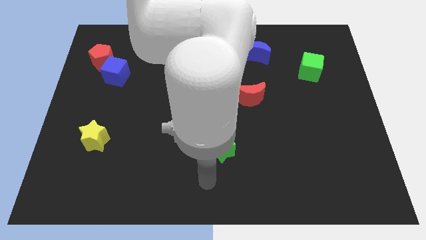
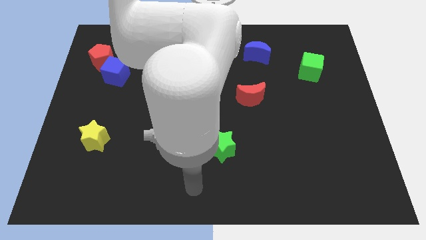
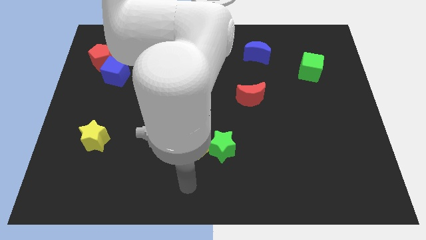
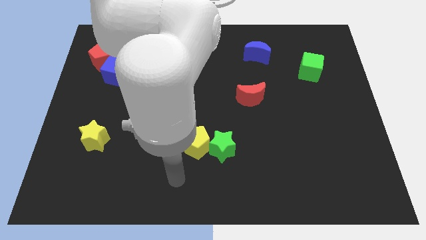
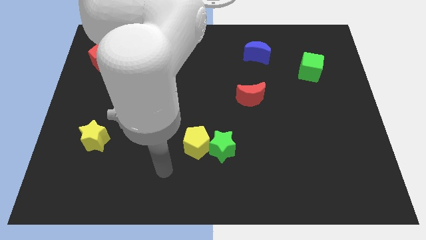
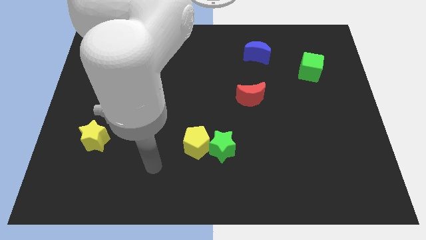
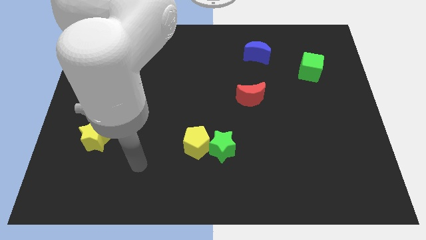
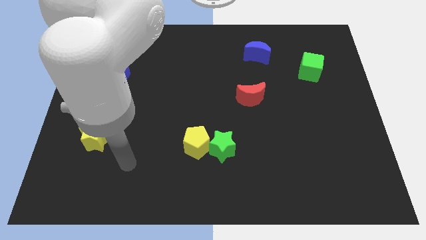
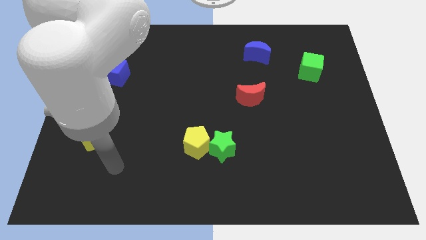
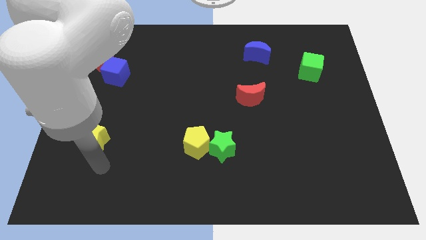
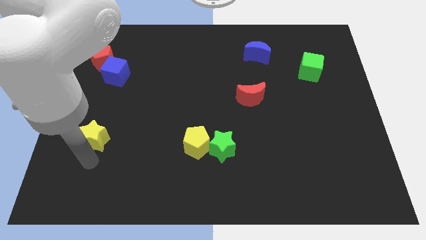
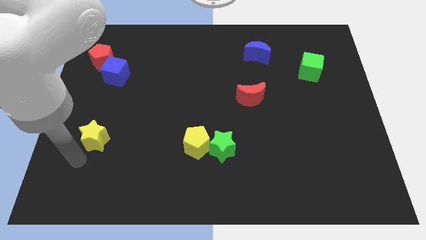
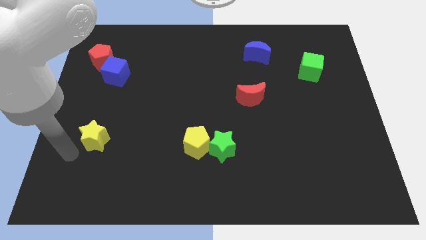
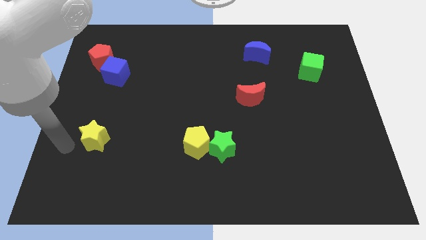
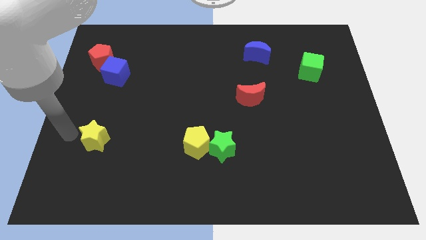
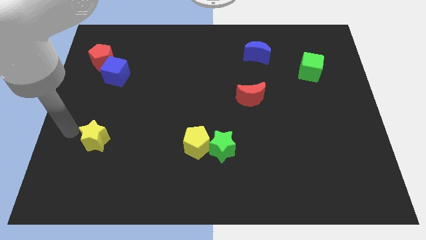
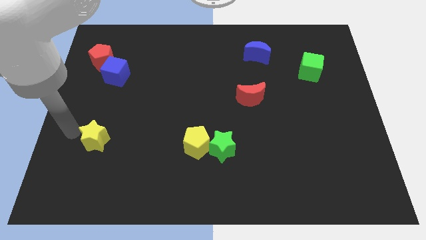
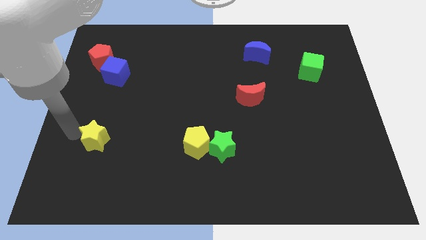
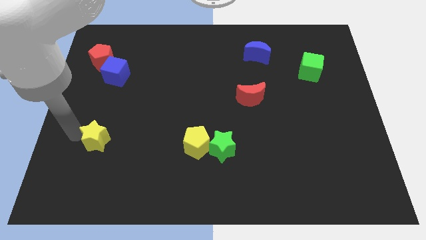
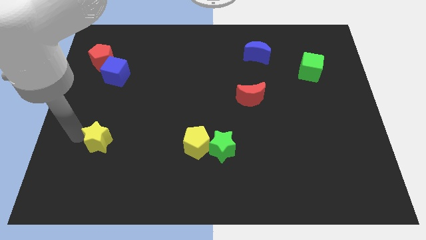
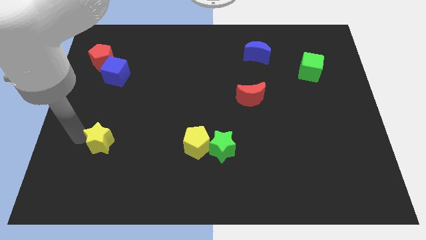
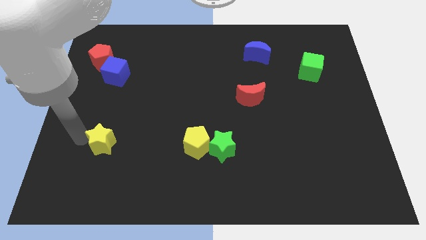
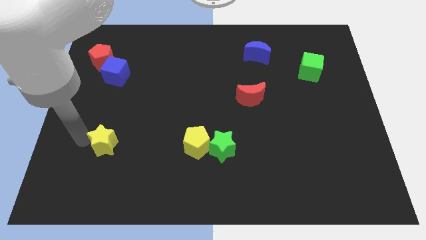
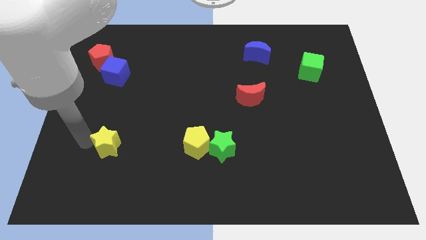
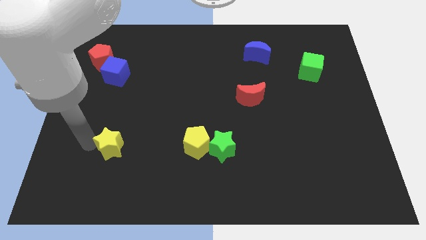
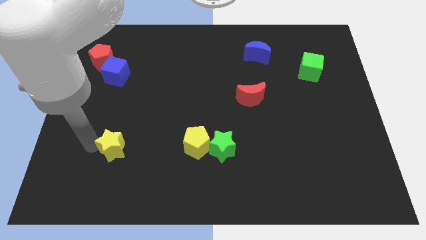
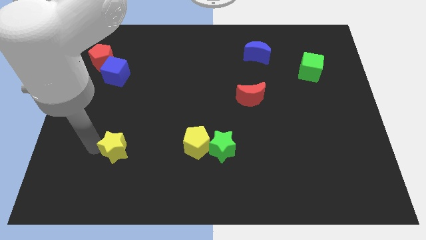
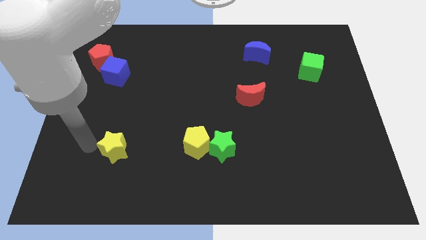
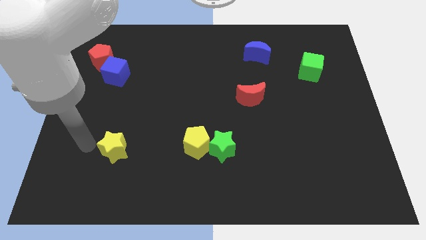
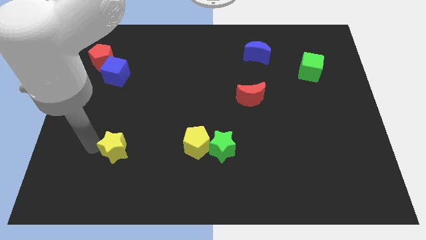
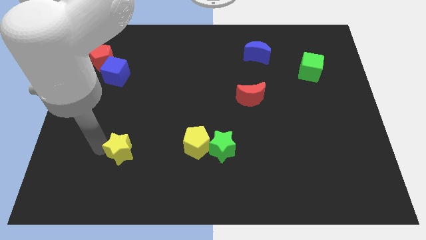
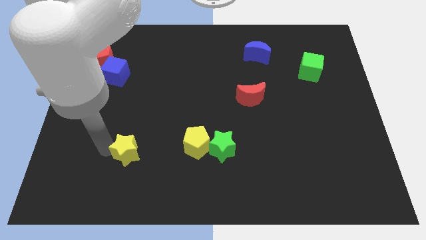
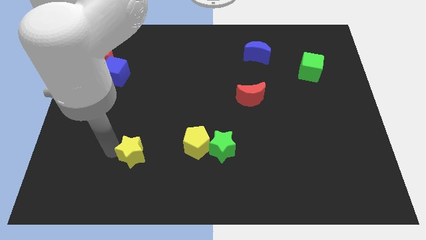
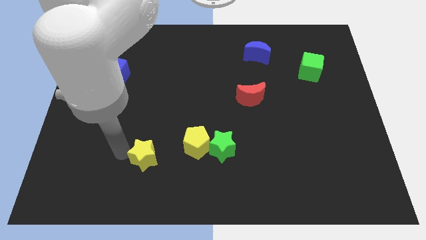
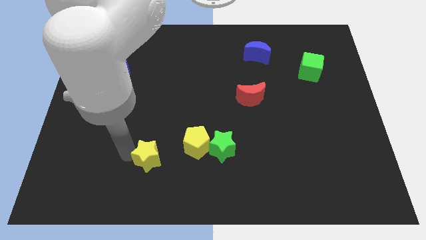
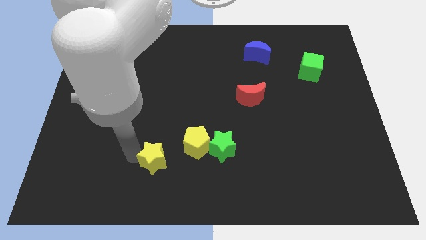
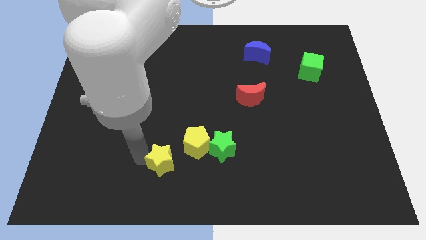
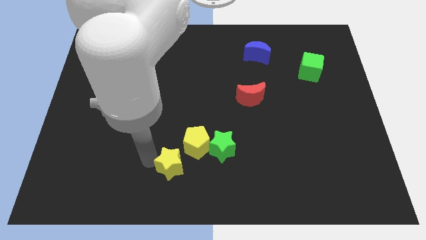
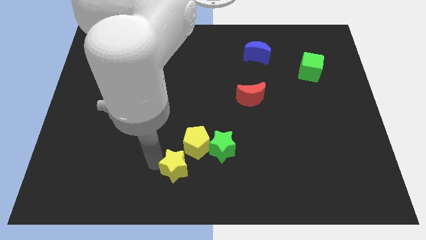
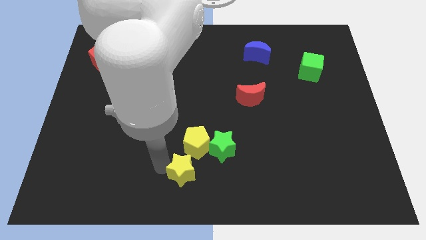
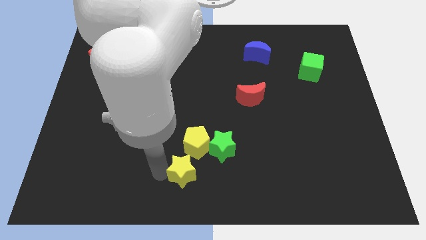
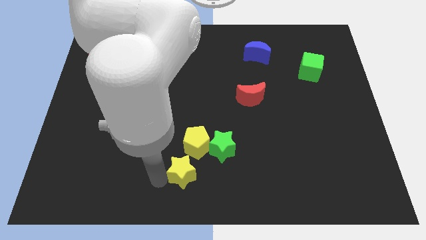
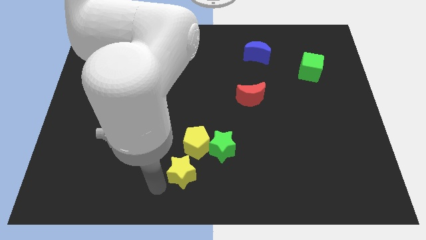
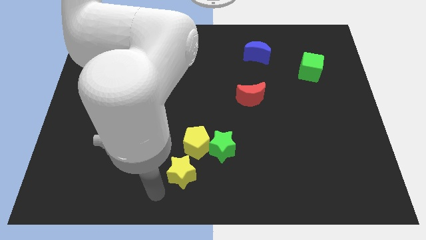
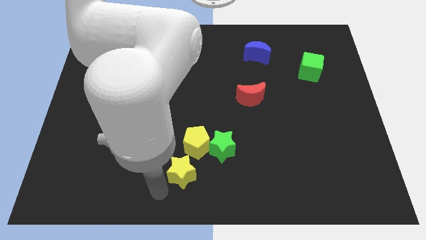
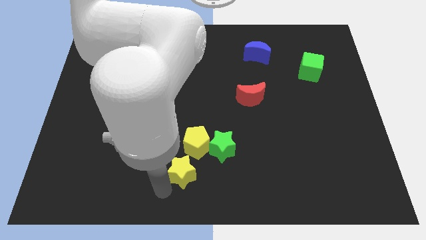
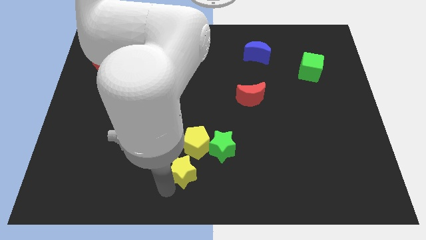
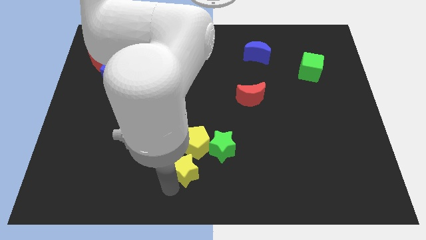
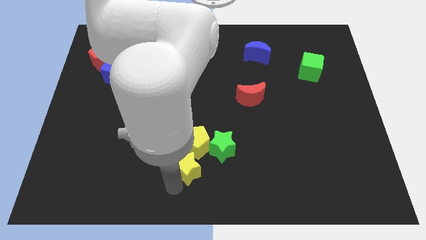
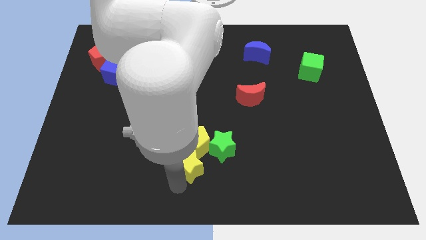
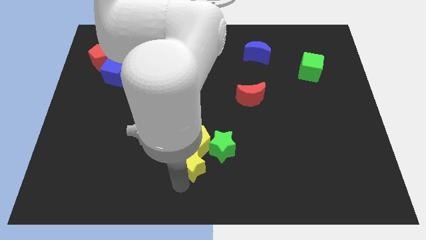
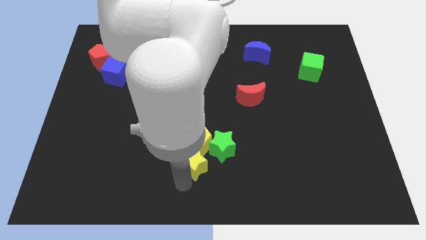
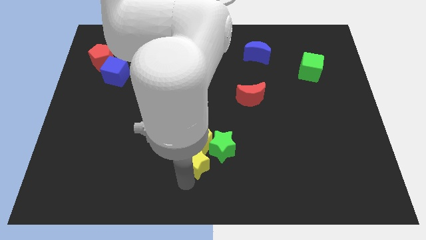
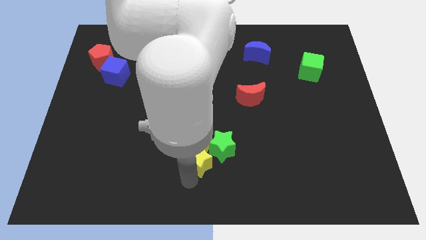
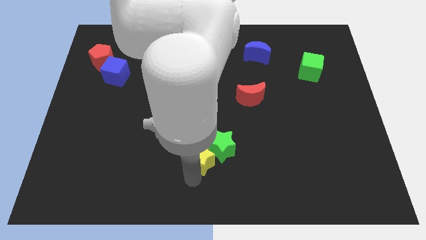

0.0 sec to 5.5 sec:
put the yellow star next to the green star

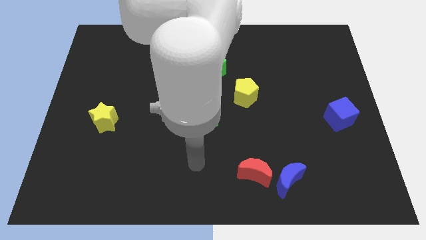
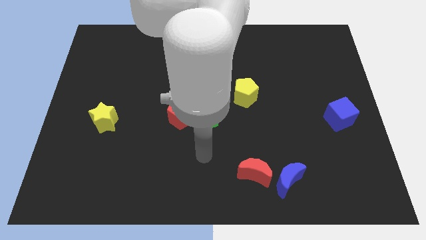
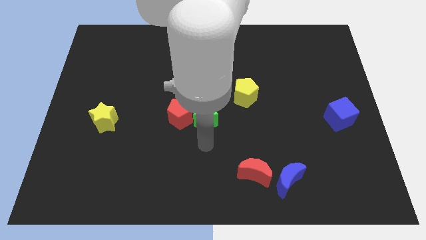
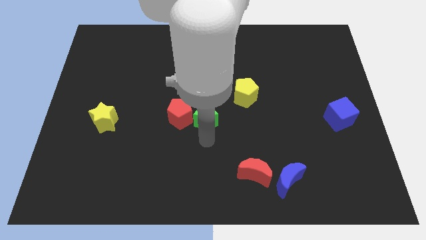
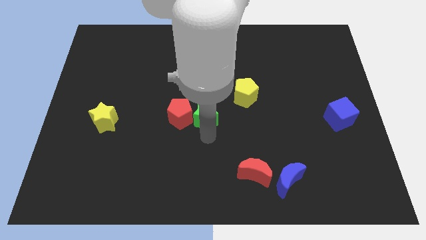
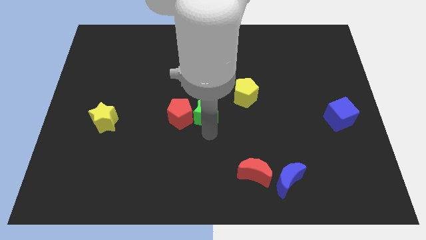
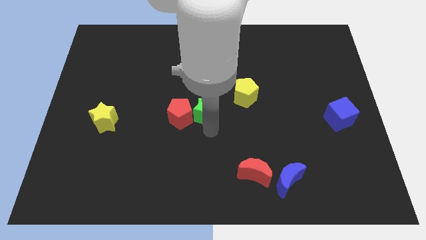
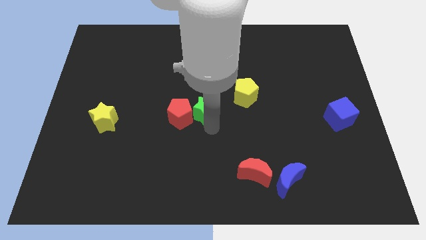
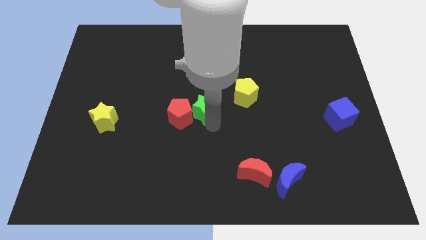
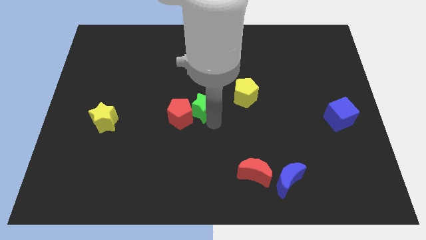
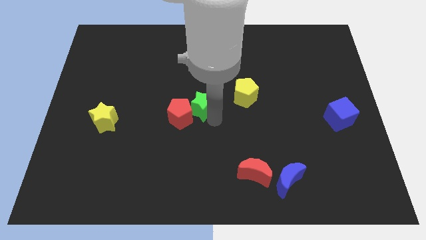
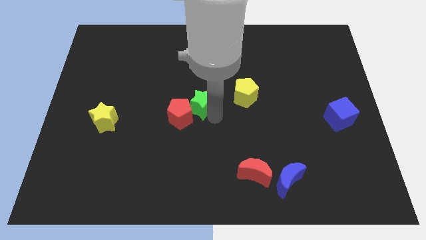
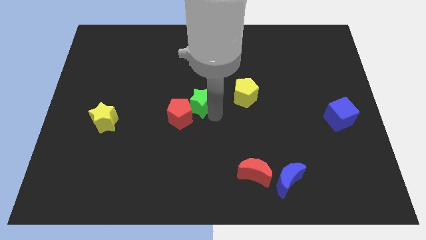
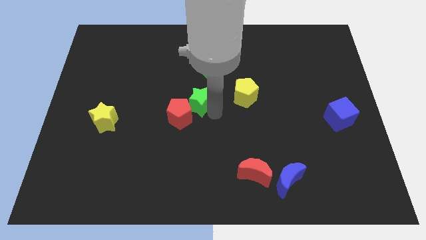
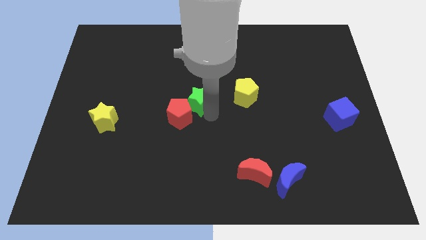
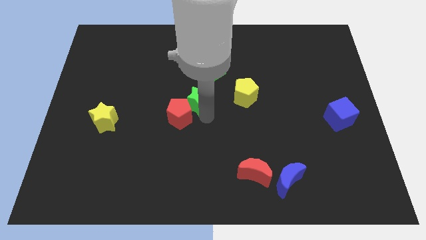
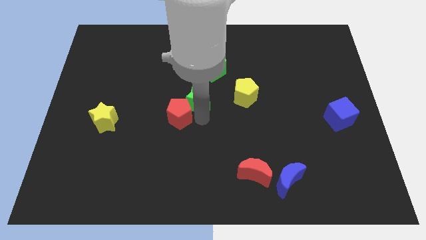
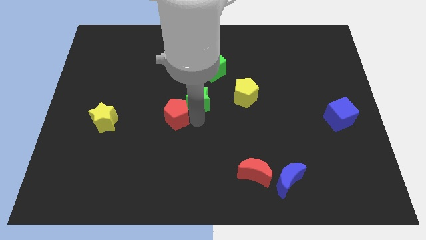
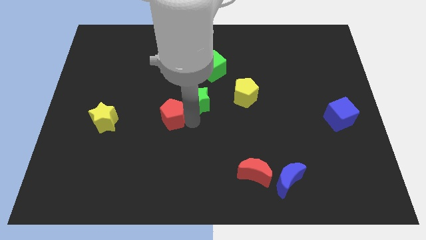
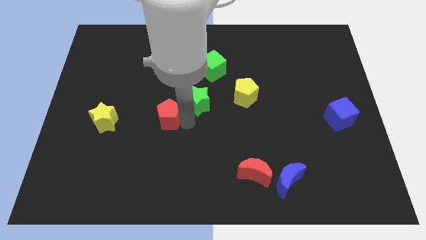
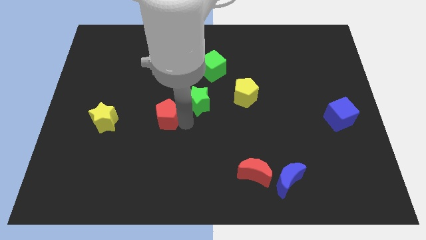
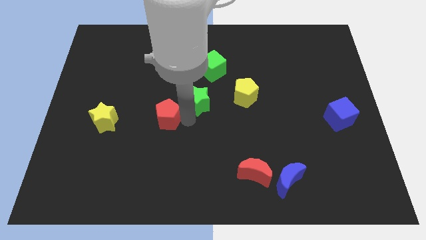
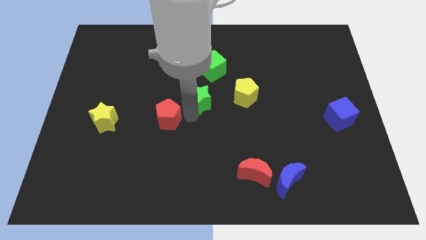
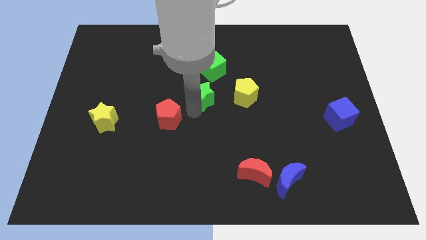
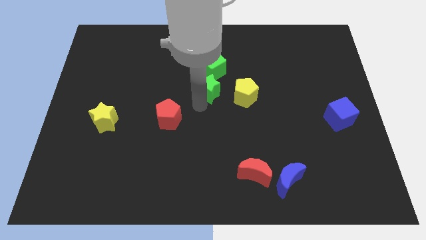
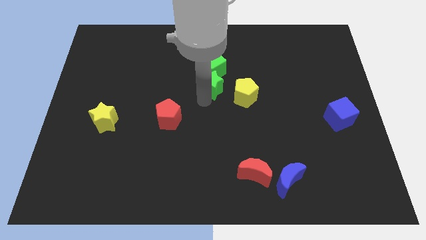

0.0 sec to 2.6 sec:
move the green star next to the green cube
